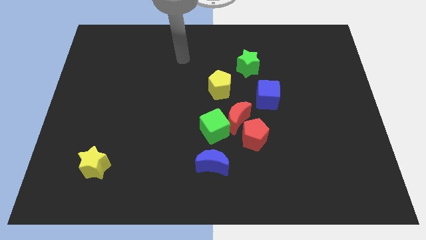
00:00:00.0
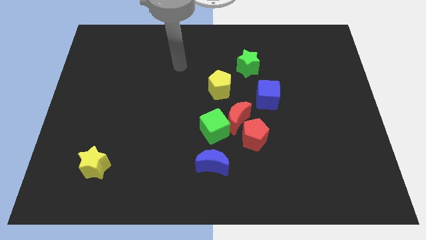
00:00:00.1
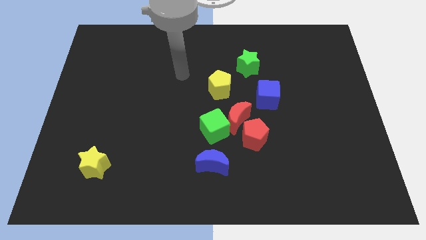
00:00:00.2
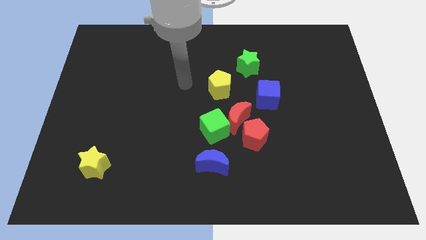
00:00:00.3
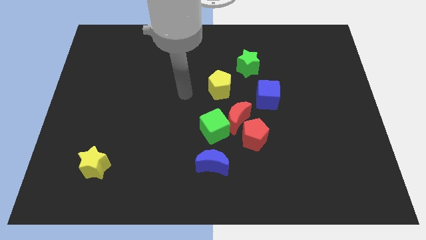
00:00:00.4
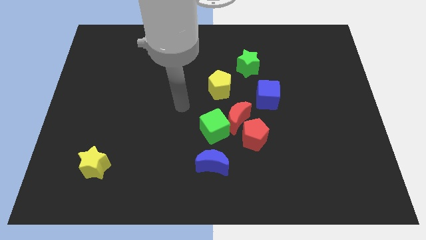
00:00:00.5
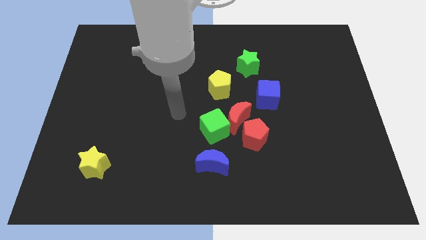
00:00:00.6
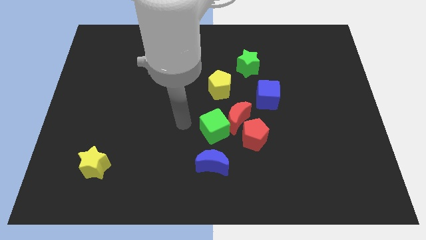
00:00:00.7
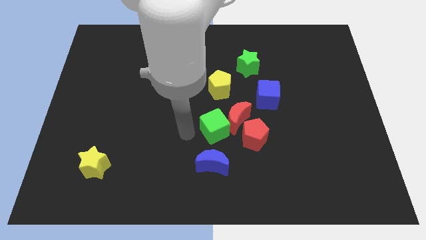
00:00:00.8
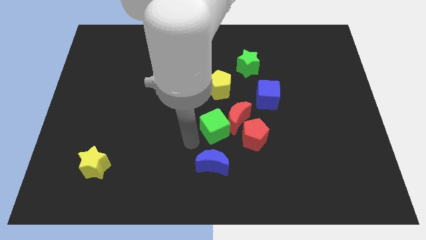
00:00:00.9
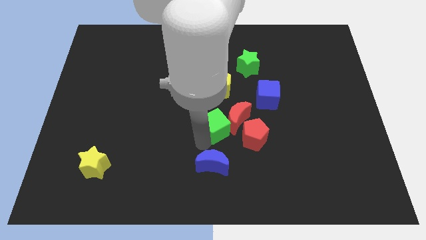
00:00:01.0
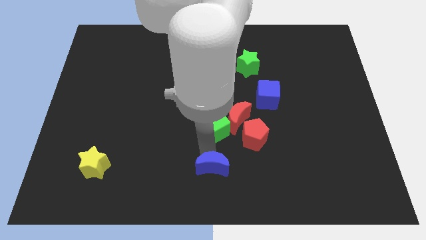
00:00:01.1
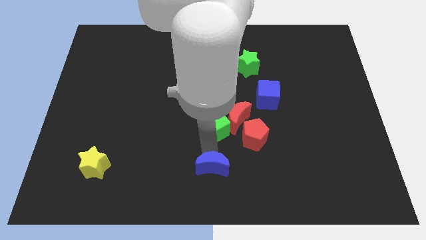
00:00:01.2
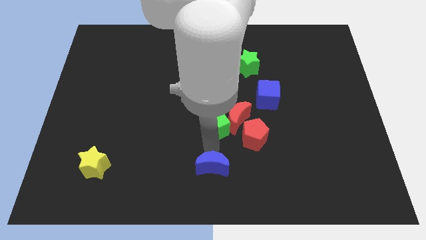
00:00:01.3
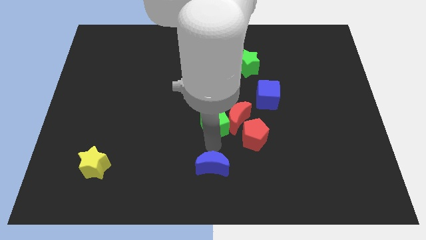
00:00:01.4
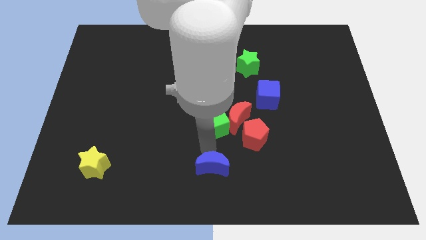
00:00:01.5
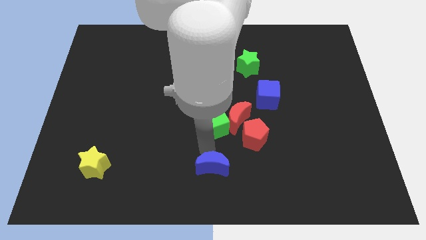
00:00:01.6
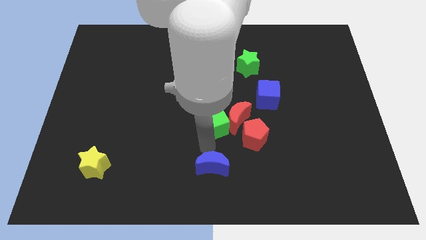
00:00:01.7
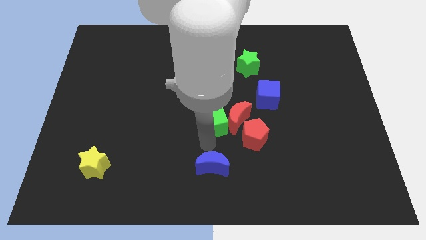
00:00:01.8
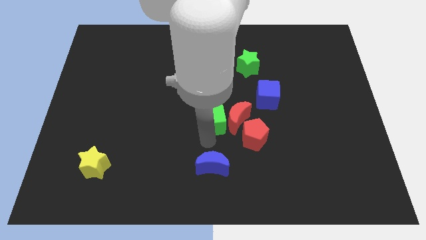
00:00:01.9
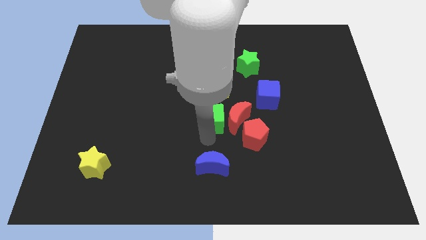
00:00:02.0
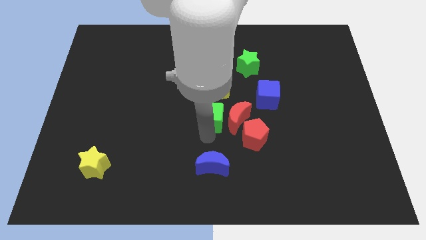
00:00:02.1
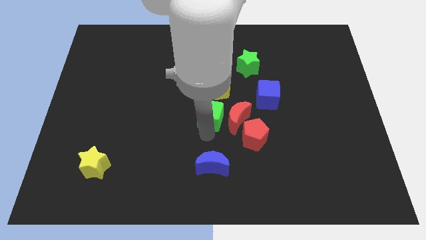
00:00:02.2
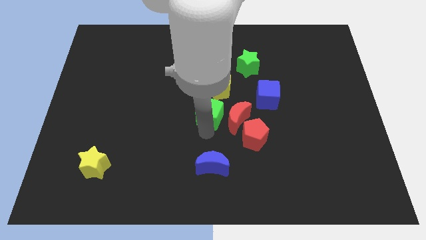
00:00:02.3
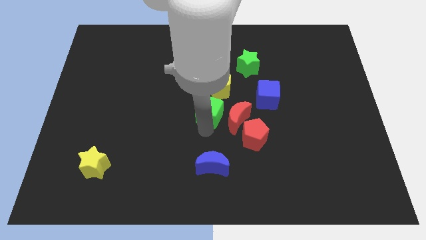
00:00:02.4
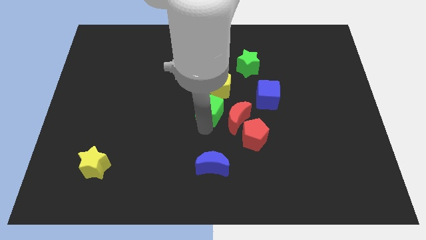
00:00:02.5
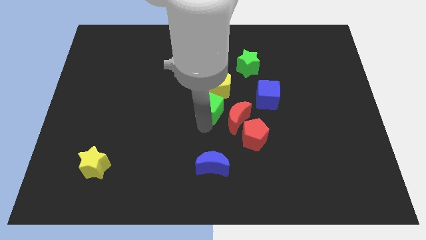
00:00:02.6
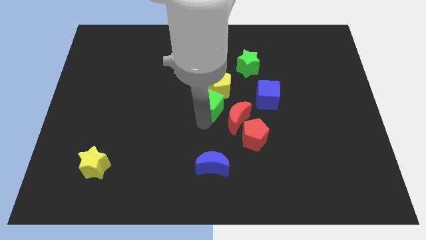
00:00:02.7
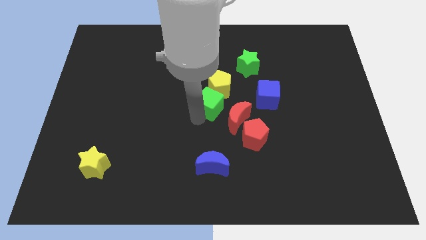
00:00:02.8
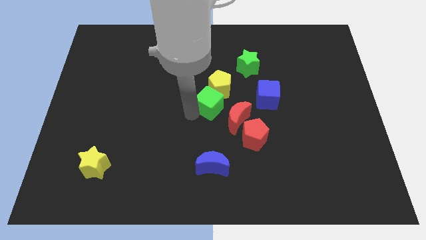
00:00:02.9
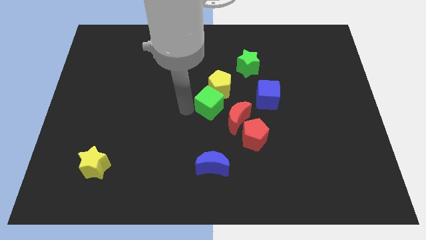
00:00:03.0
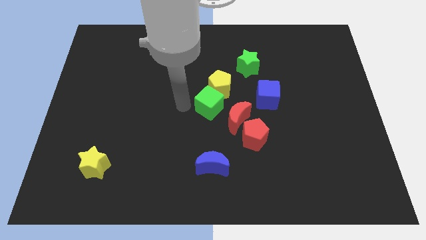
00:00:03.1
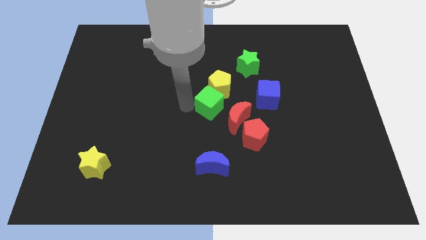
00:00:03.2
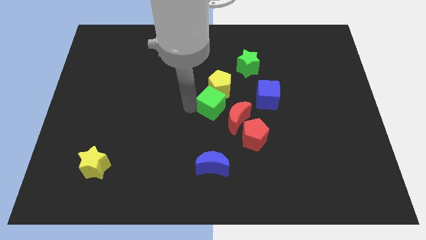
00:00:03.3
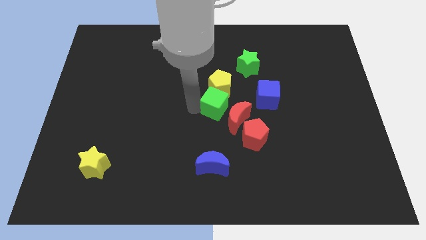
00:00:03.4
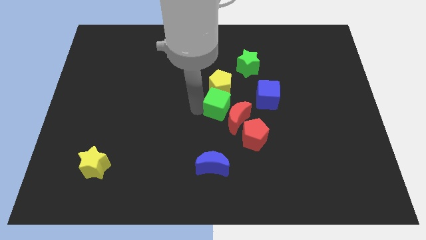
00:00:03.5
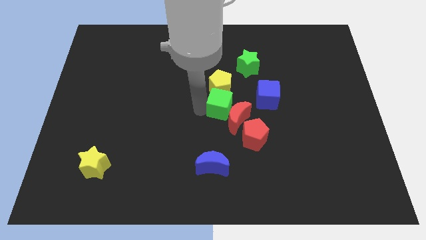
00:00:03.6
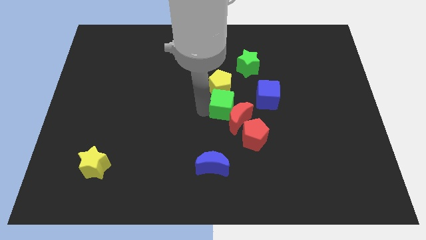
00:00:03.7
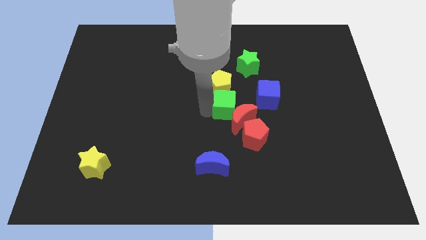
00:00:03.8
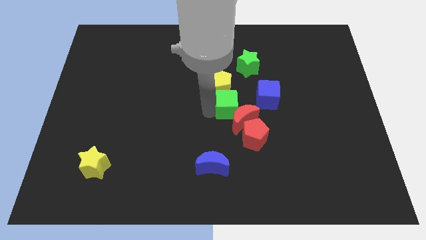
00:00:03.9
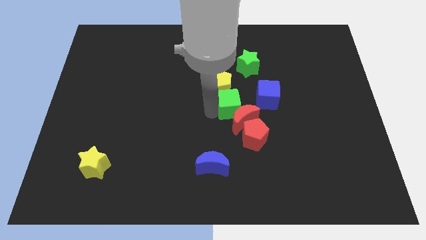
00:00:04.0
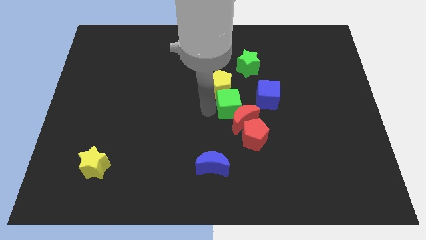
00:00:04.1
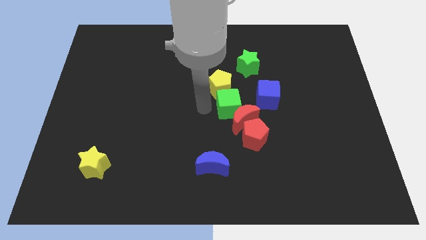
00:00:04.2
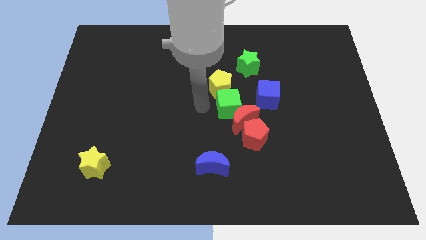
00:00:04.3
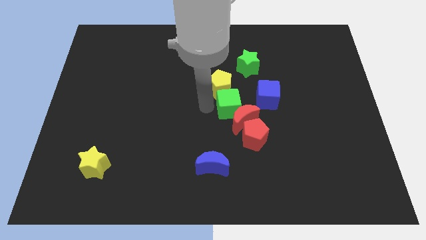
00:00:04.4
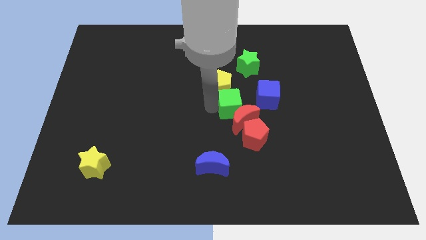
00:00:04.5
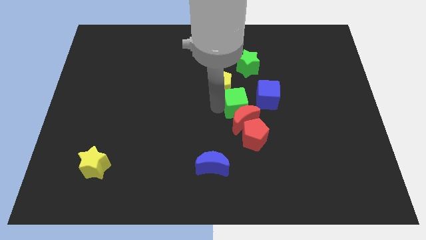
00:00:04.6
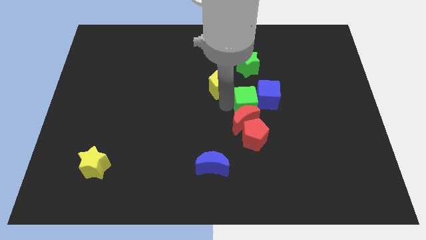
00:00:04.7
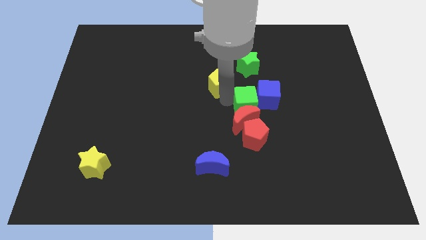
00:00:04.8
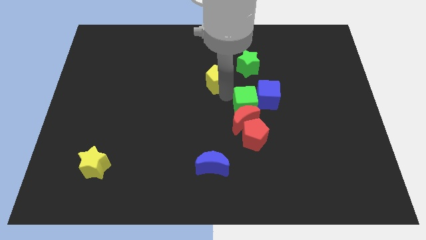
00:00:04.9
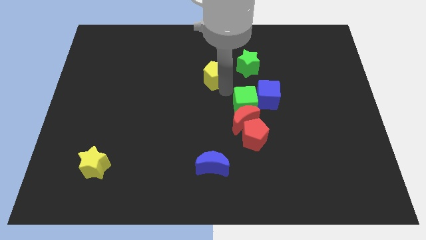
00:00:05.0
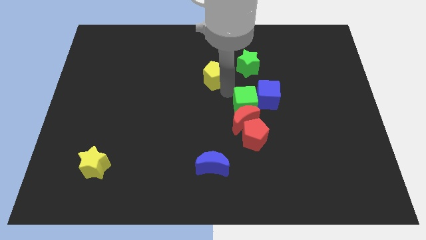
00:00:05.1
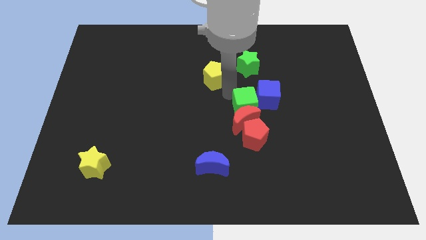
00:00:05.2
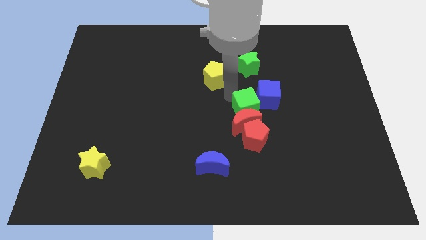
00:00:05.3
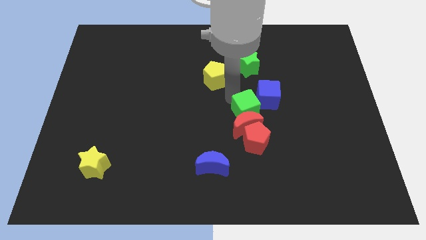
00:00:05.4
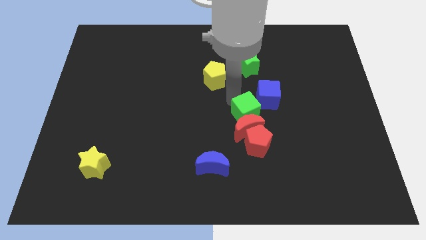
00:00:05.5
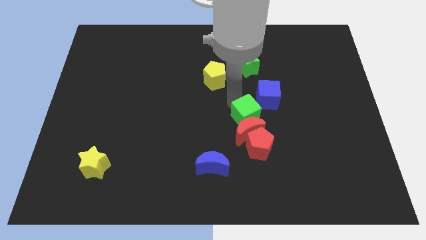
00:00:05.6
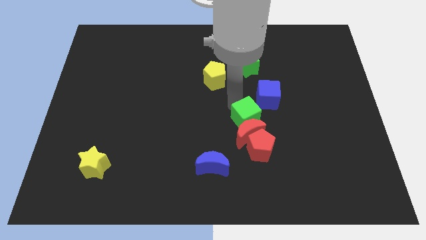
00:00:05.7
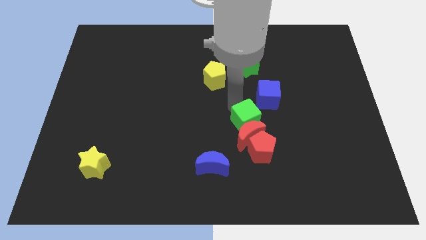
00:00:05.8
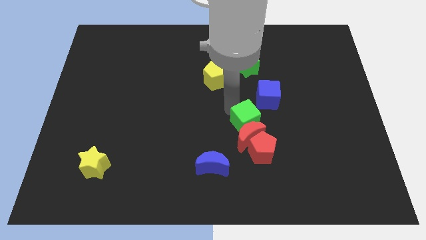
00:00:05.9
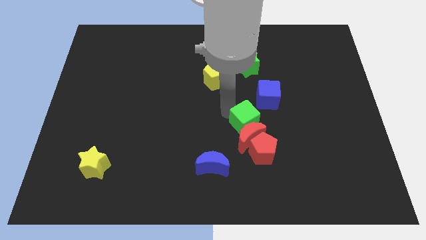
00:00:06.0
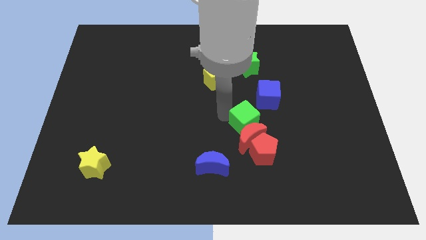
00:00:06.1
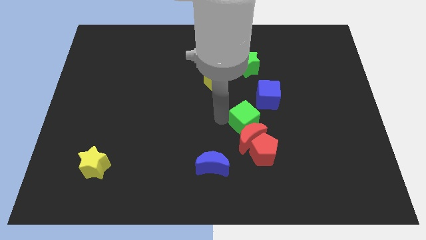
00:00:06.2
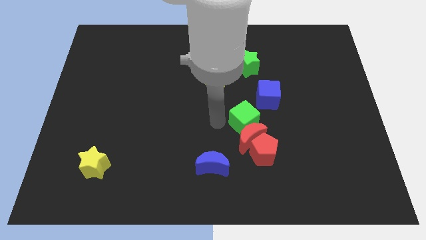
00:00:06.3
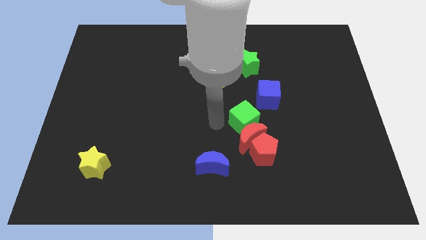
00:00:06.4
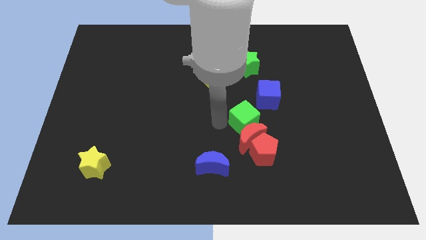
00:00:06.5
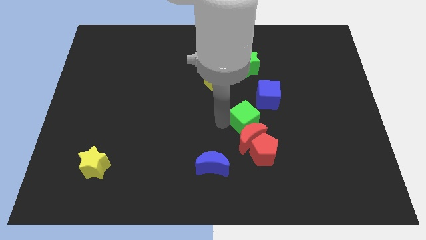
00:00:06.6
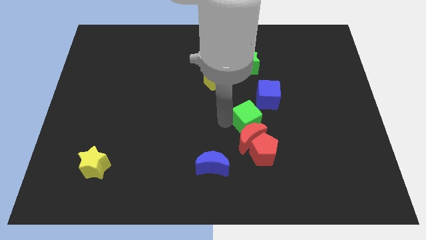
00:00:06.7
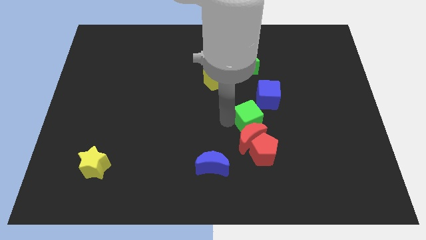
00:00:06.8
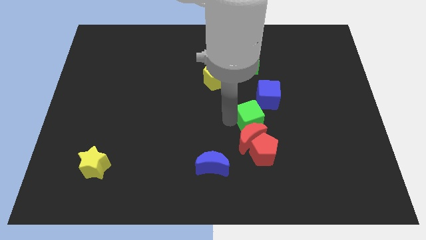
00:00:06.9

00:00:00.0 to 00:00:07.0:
slide the green cube to the bottom of the blue cube
